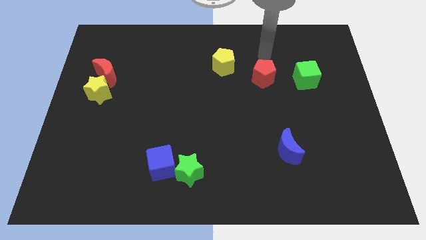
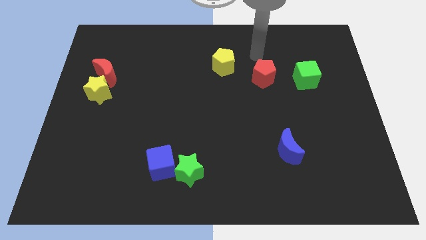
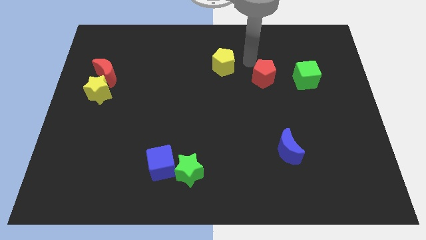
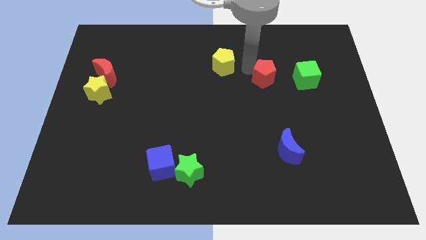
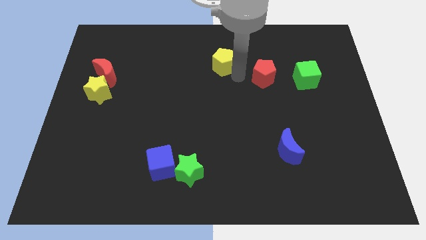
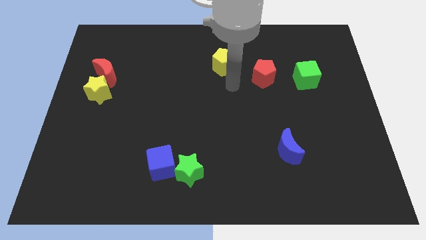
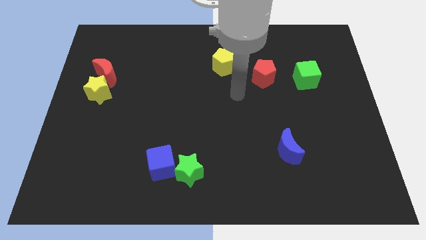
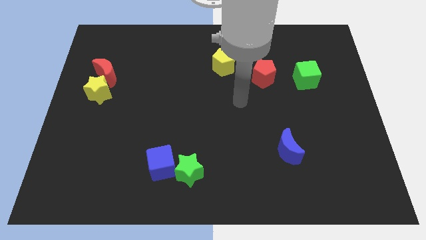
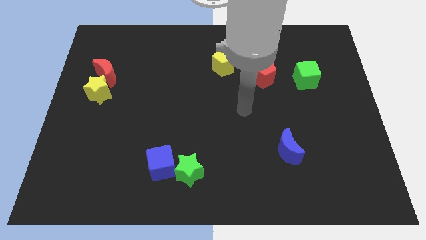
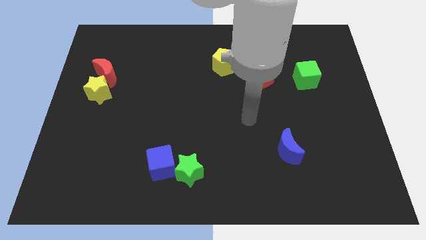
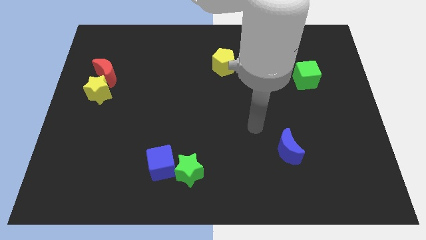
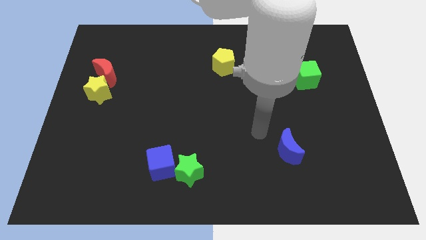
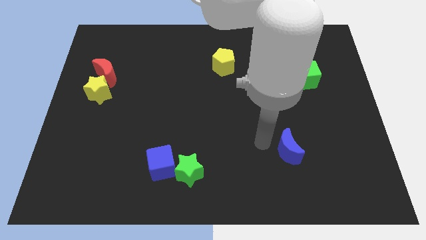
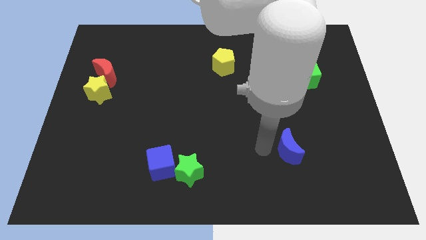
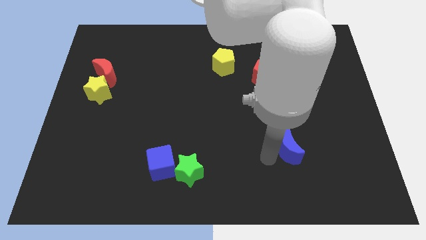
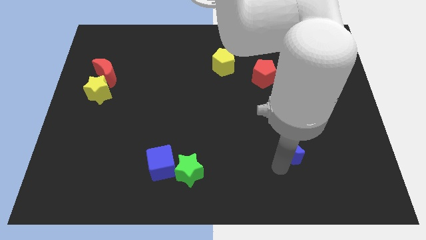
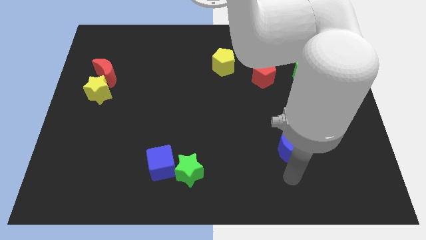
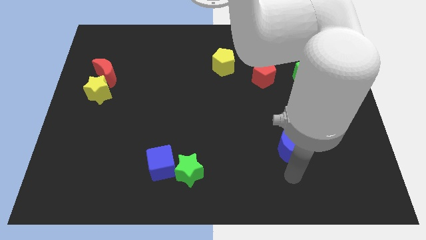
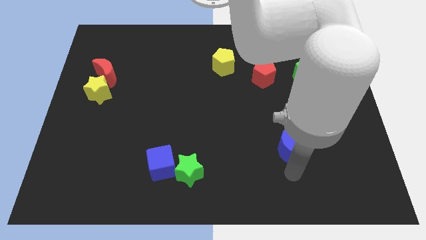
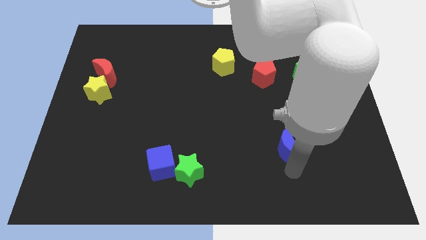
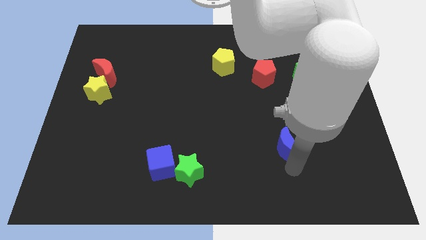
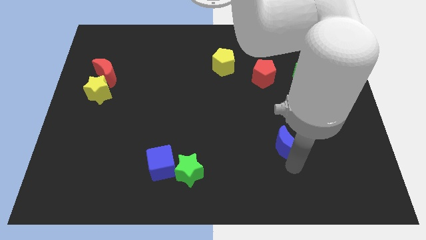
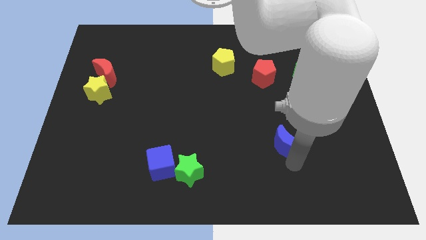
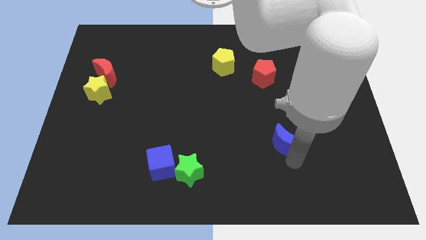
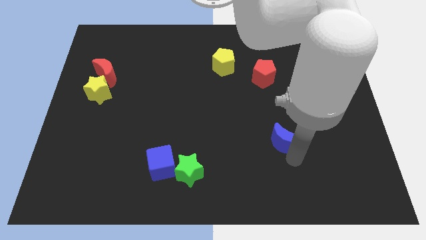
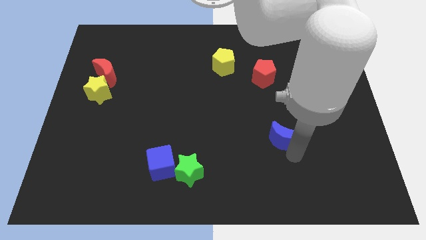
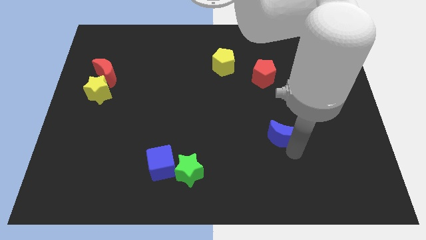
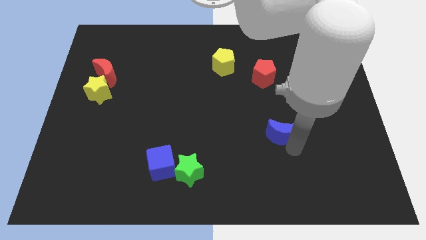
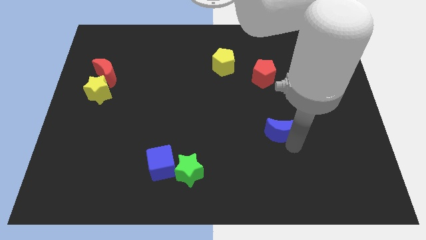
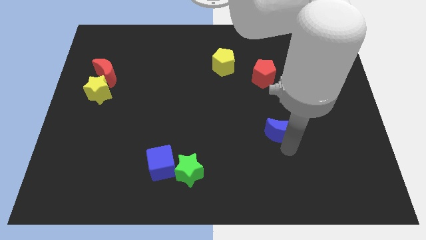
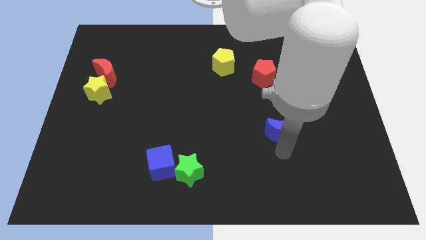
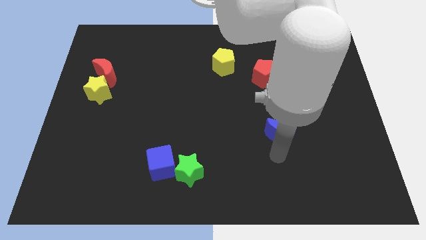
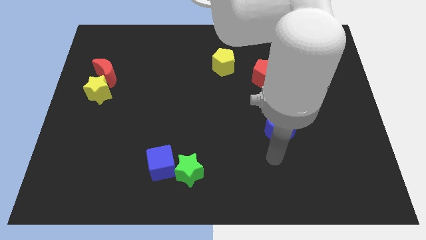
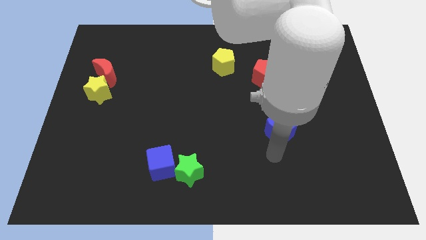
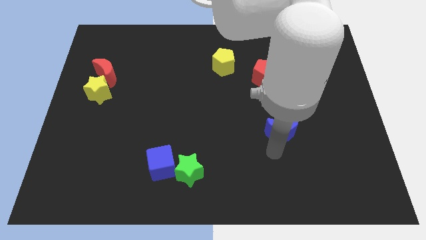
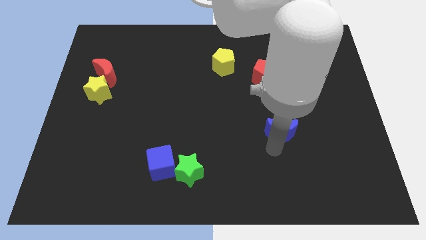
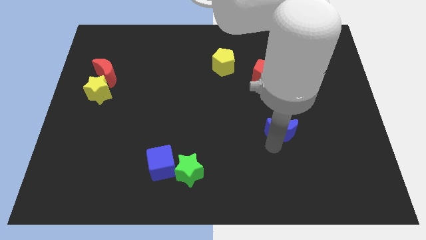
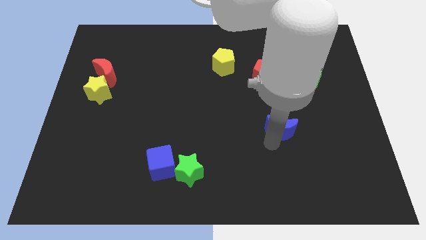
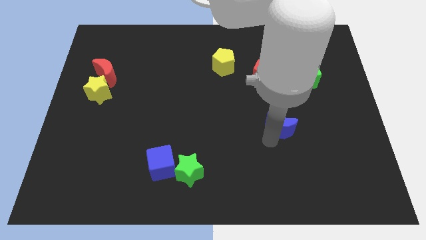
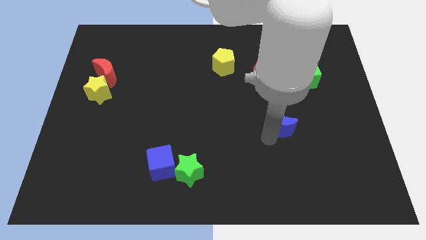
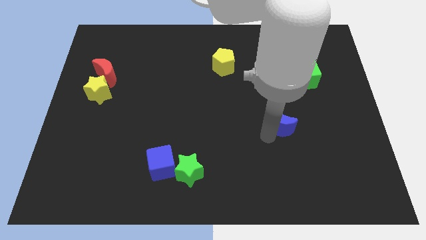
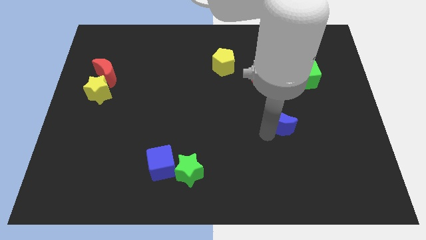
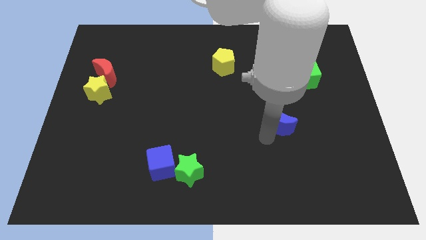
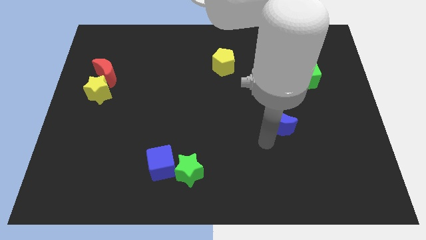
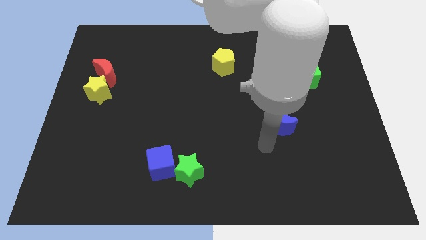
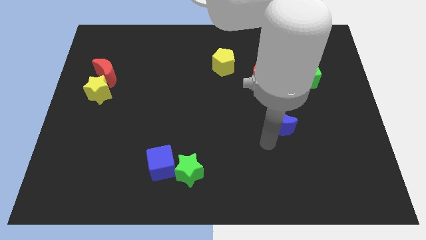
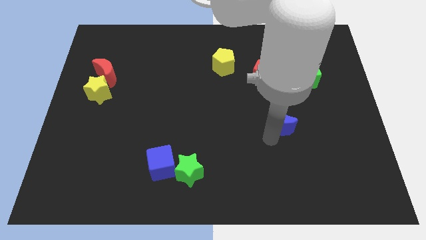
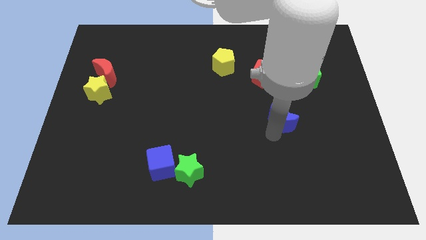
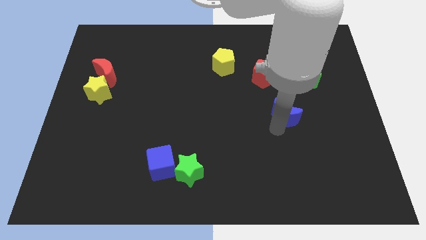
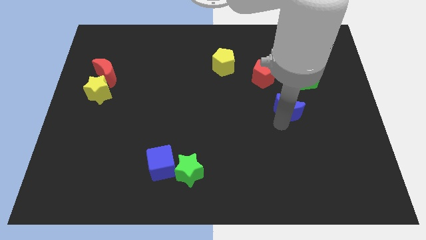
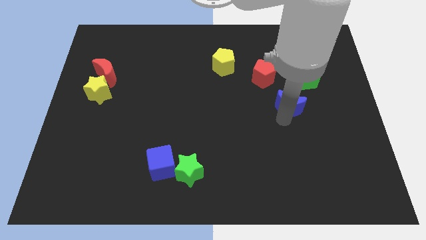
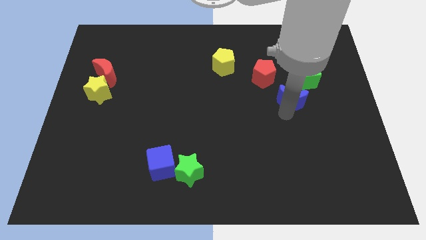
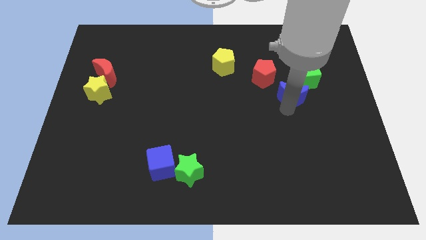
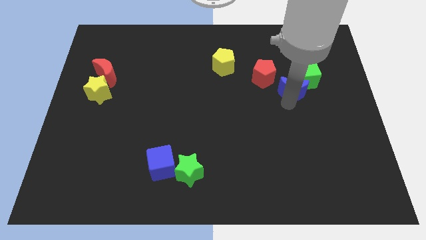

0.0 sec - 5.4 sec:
push the blue moon close to the green cube
